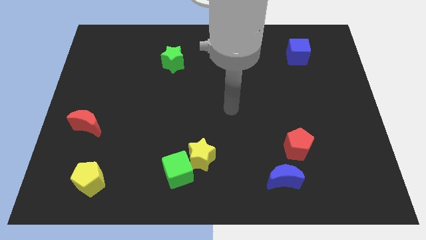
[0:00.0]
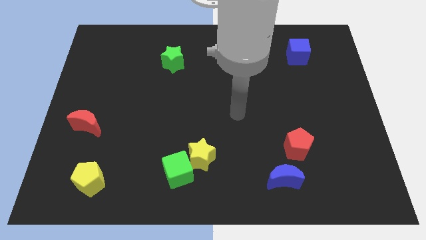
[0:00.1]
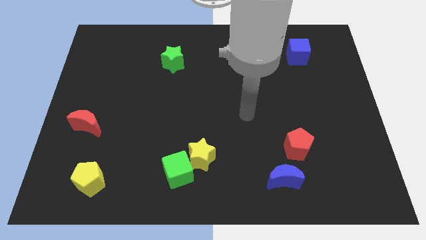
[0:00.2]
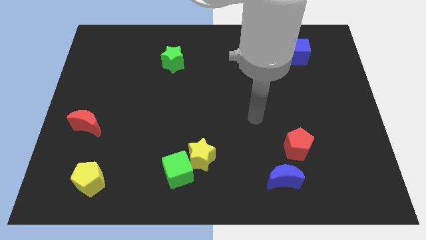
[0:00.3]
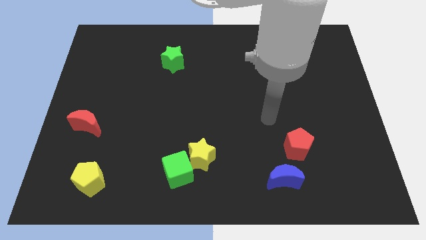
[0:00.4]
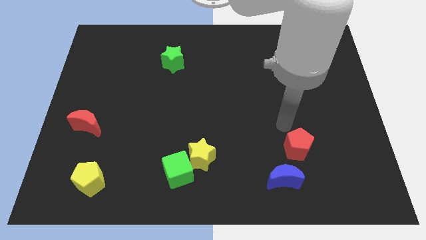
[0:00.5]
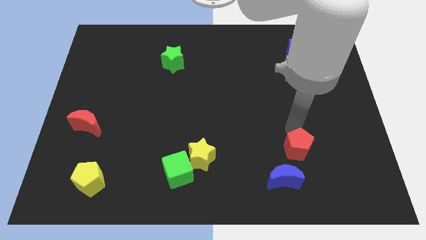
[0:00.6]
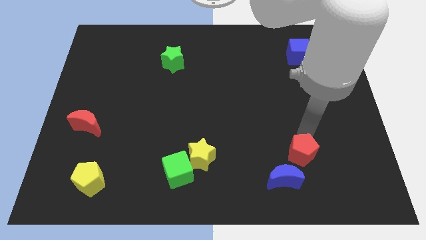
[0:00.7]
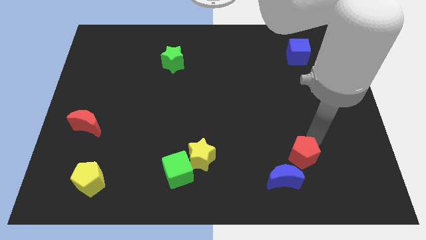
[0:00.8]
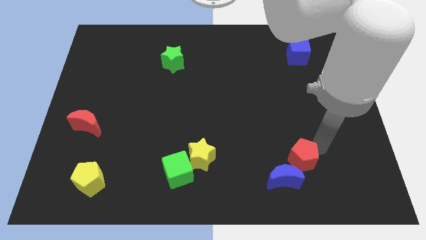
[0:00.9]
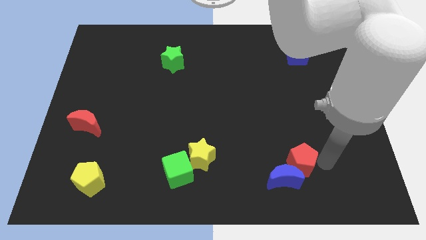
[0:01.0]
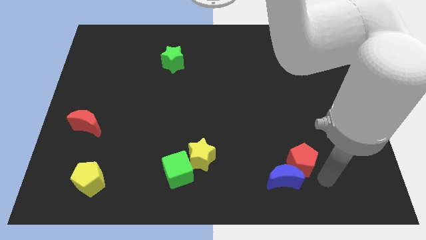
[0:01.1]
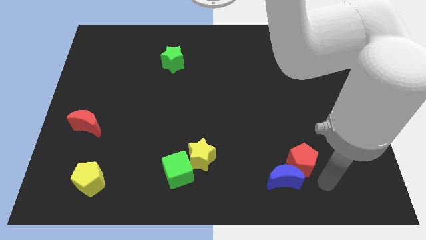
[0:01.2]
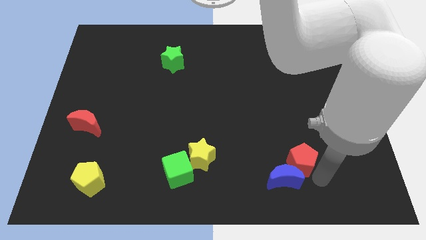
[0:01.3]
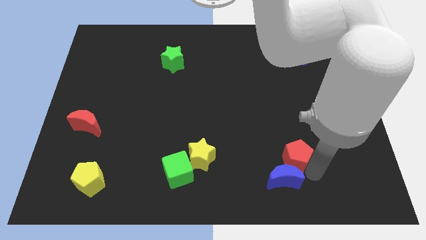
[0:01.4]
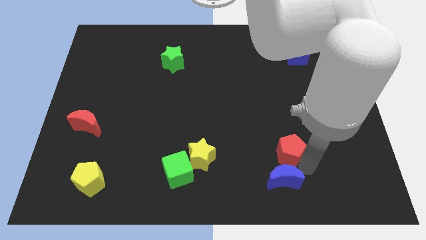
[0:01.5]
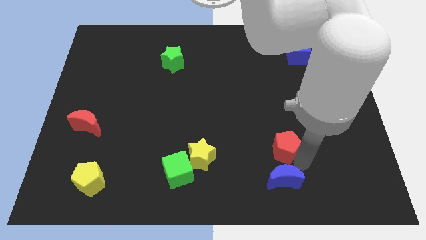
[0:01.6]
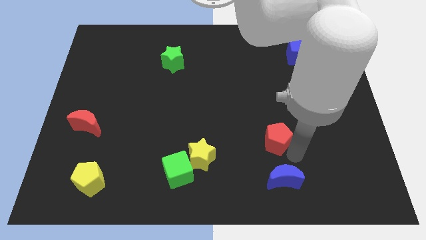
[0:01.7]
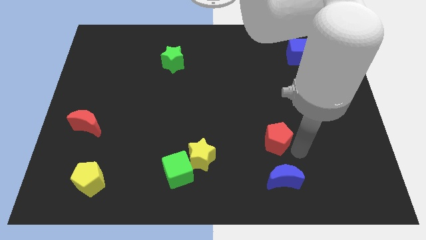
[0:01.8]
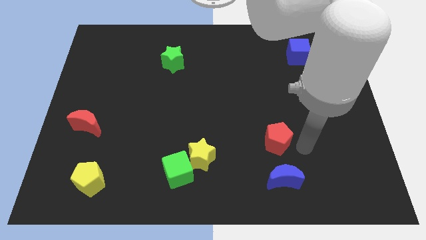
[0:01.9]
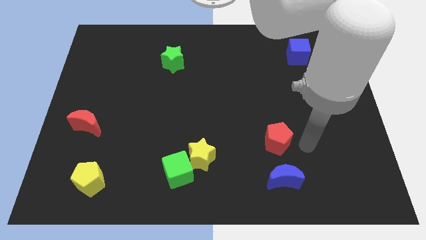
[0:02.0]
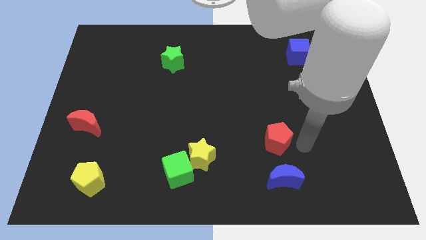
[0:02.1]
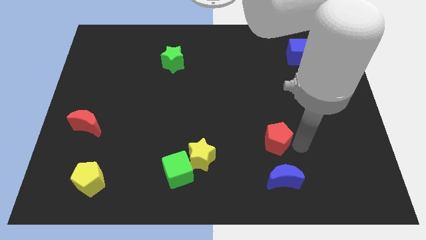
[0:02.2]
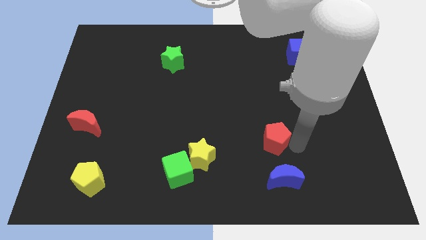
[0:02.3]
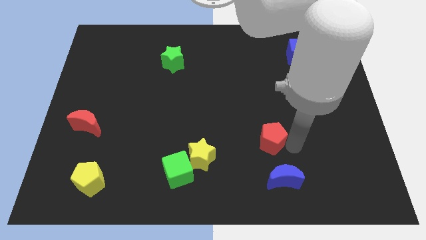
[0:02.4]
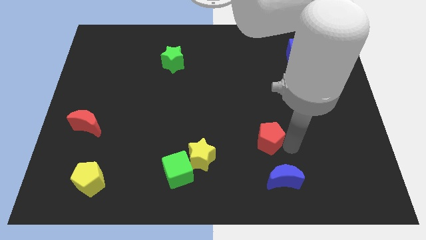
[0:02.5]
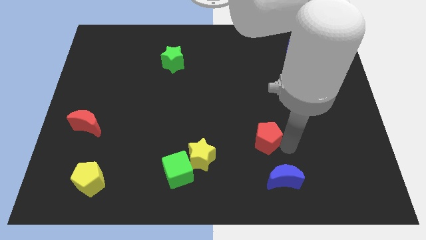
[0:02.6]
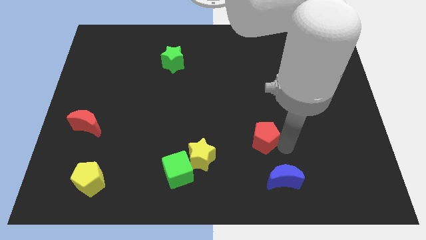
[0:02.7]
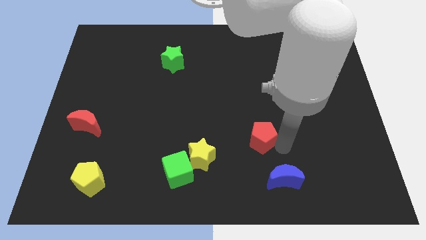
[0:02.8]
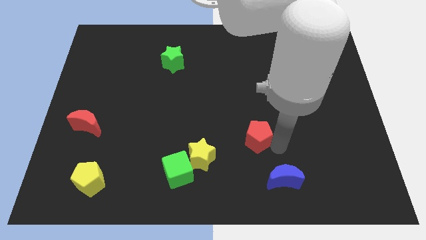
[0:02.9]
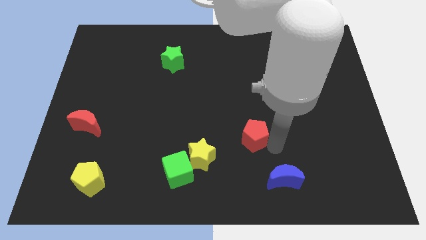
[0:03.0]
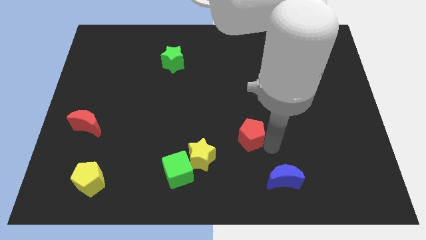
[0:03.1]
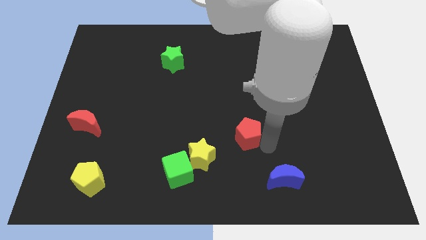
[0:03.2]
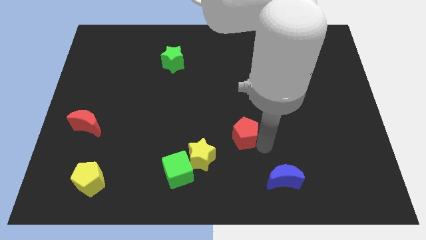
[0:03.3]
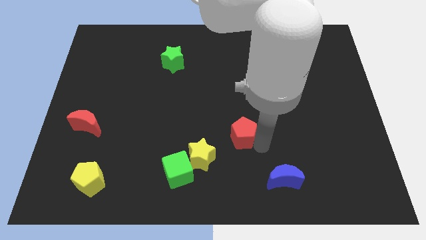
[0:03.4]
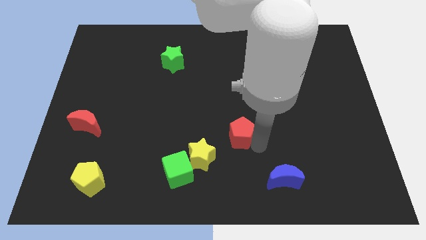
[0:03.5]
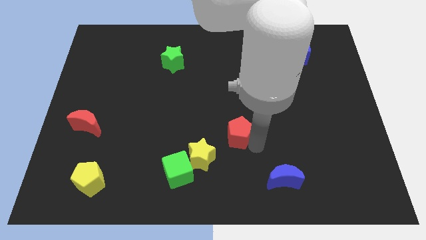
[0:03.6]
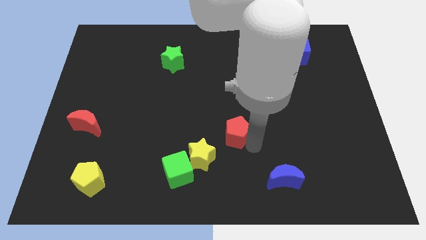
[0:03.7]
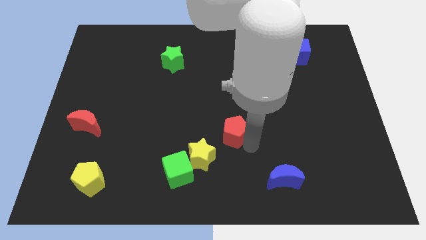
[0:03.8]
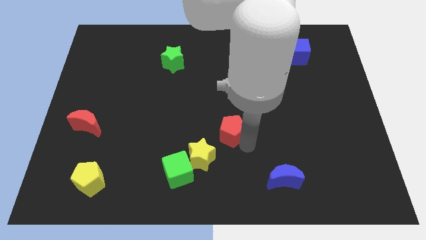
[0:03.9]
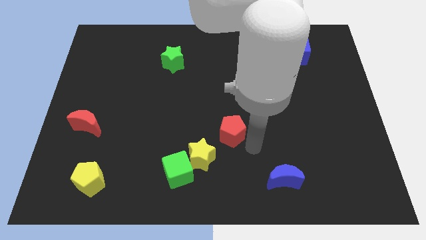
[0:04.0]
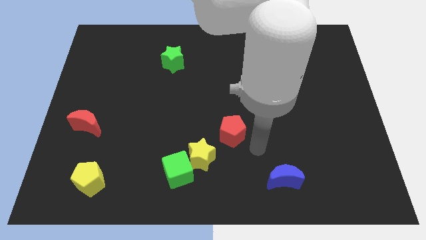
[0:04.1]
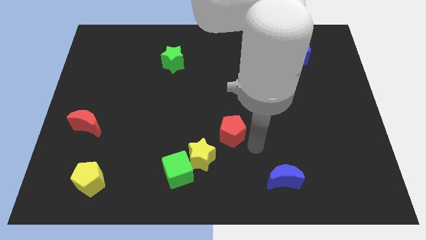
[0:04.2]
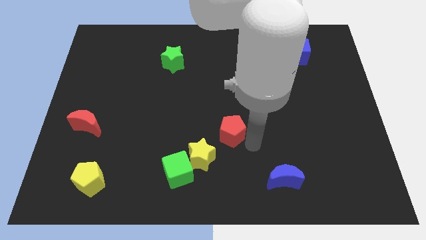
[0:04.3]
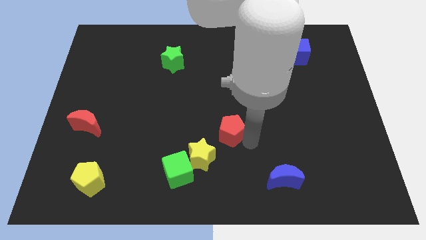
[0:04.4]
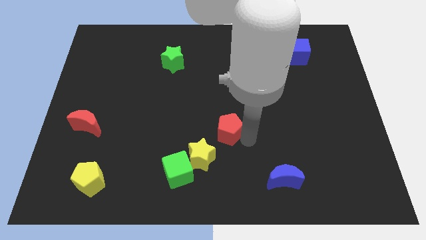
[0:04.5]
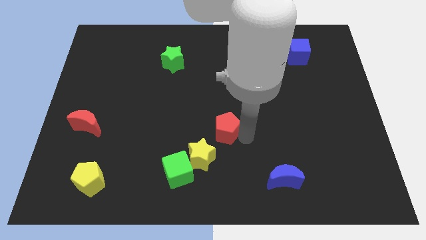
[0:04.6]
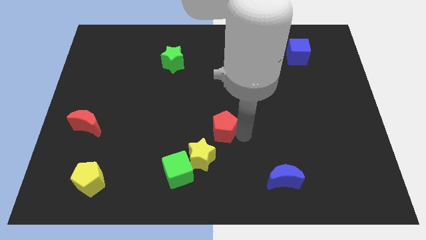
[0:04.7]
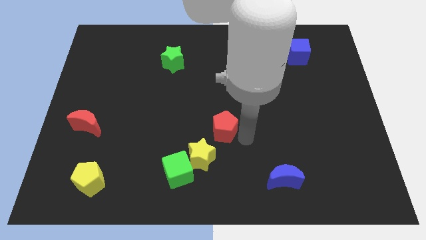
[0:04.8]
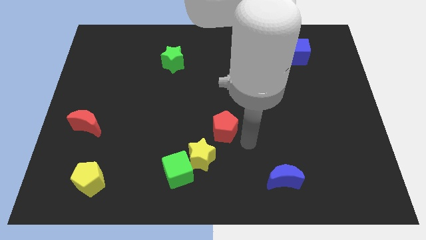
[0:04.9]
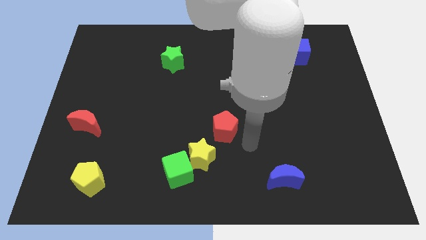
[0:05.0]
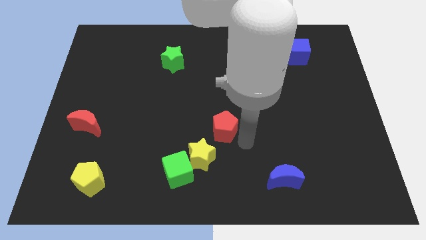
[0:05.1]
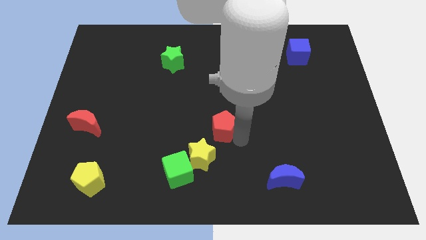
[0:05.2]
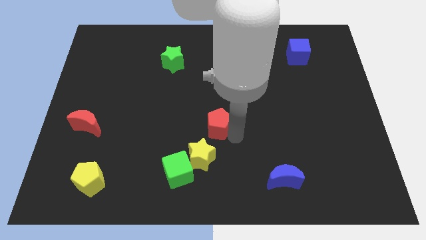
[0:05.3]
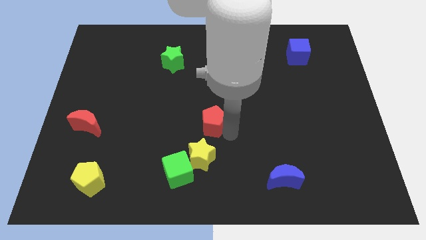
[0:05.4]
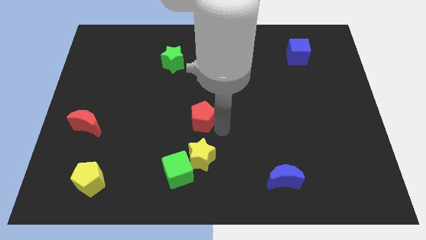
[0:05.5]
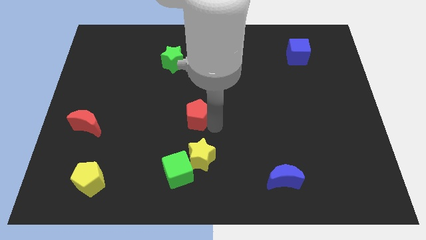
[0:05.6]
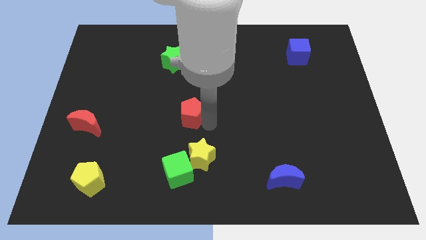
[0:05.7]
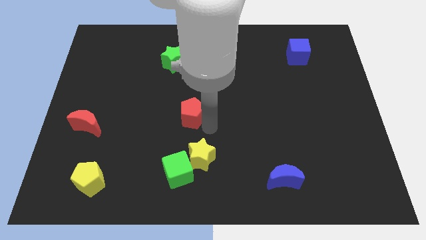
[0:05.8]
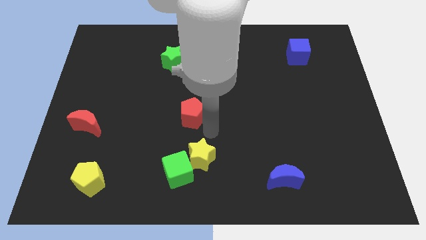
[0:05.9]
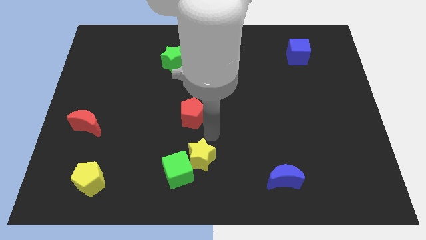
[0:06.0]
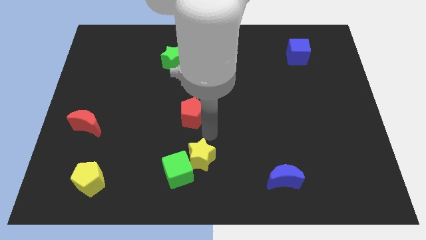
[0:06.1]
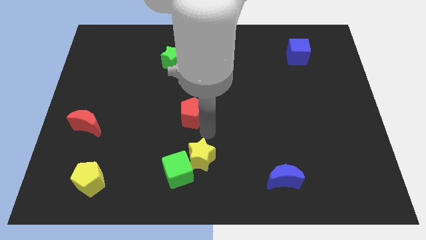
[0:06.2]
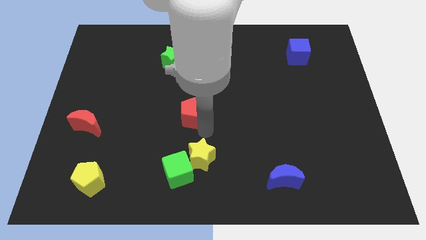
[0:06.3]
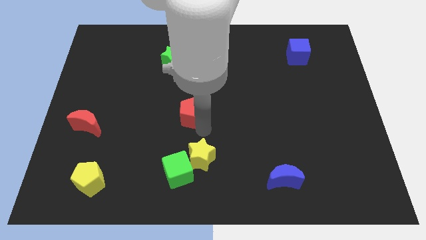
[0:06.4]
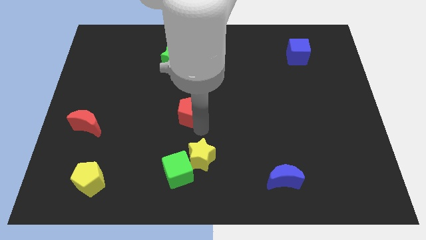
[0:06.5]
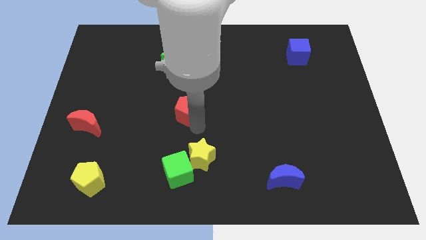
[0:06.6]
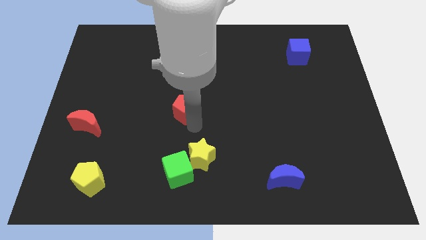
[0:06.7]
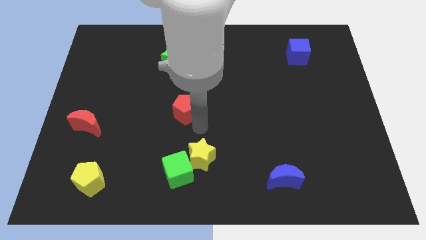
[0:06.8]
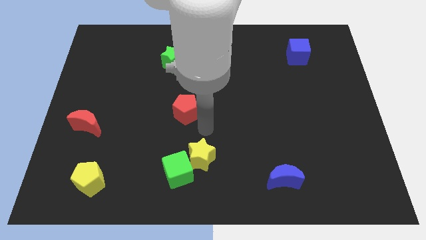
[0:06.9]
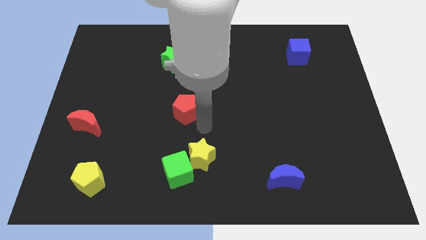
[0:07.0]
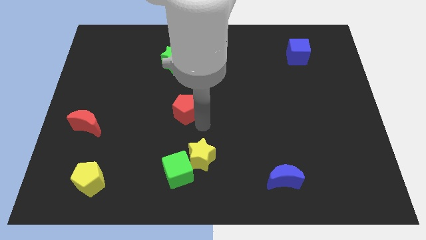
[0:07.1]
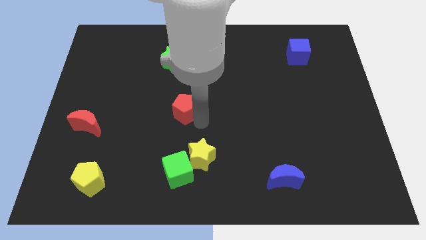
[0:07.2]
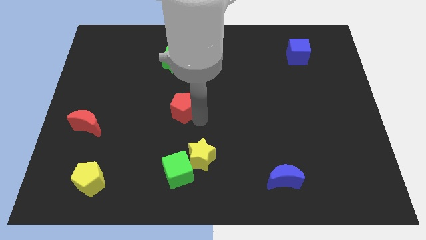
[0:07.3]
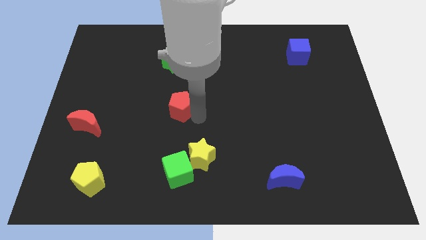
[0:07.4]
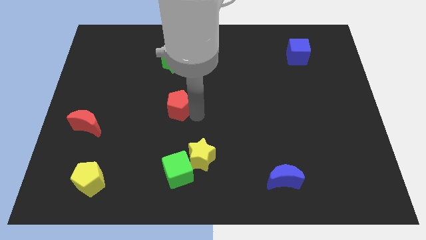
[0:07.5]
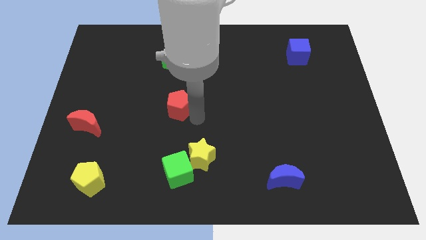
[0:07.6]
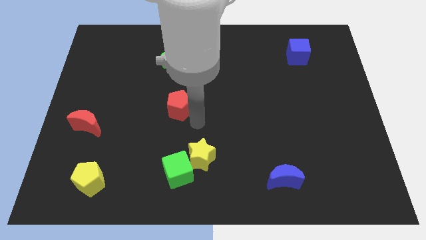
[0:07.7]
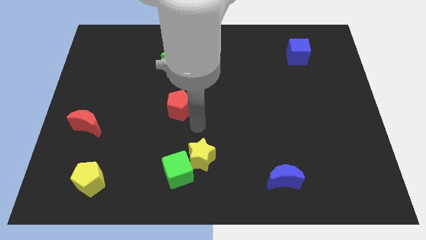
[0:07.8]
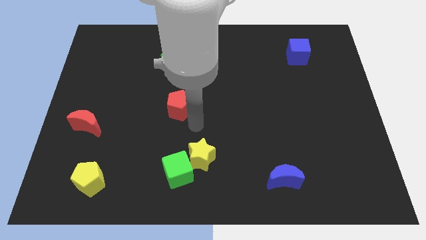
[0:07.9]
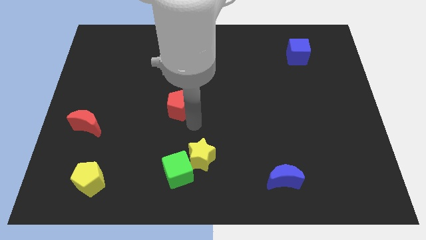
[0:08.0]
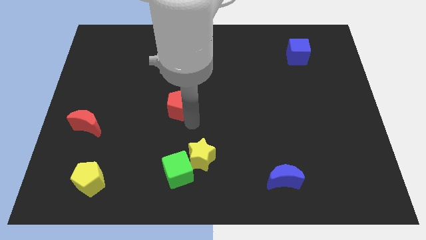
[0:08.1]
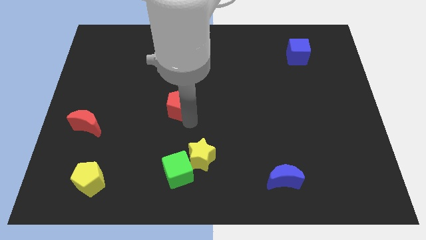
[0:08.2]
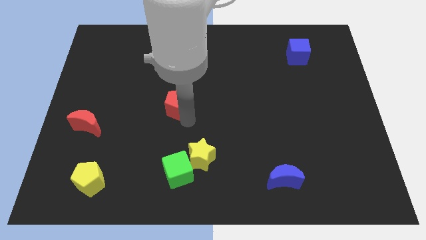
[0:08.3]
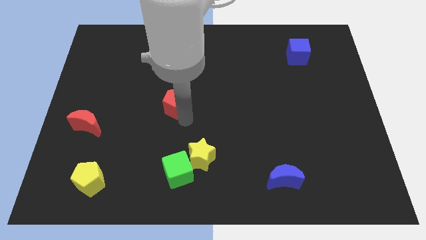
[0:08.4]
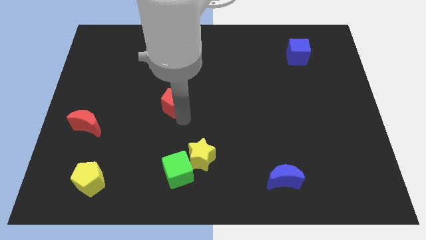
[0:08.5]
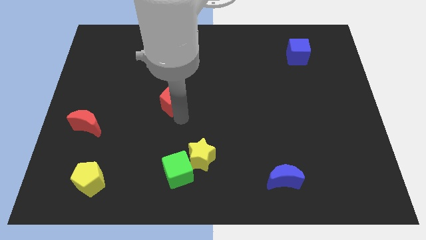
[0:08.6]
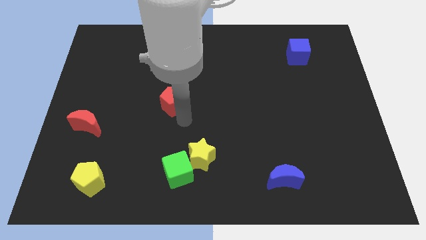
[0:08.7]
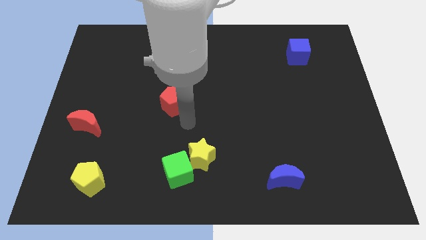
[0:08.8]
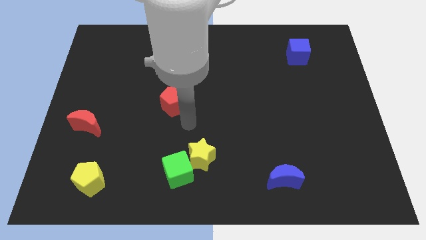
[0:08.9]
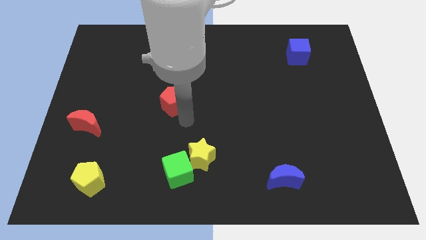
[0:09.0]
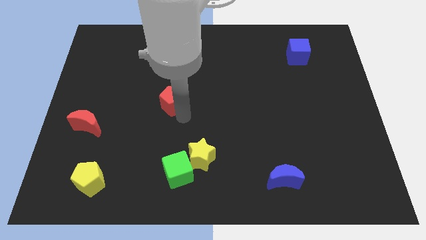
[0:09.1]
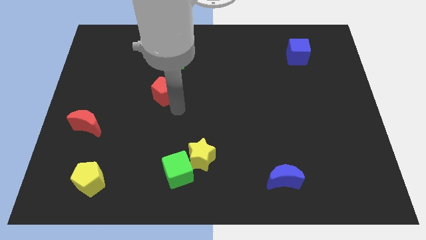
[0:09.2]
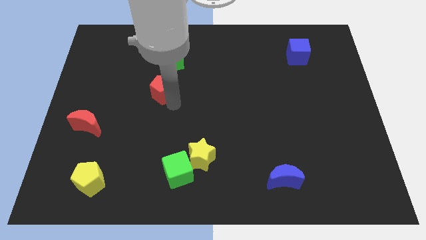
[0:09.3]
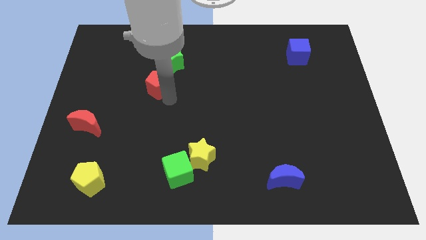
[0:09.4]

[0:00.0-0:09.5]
slide the red pentagon to the bottom left side of the green star
